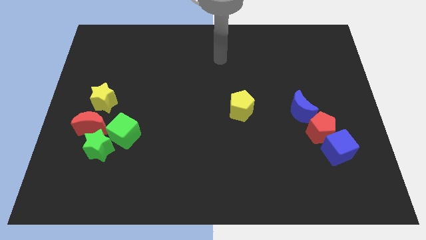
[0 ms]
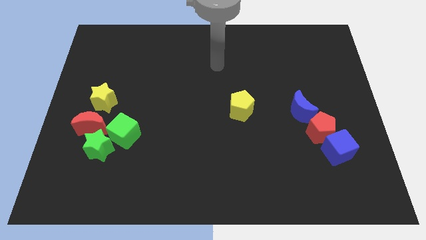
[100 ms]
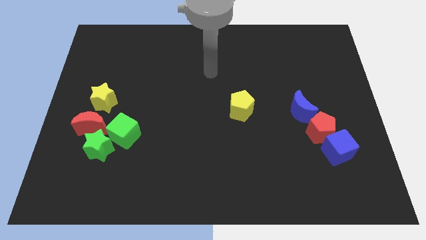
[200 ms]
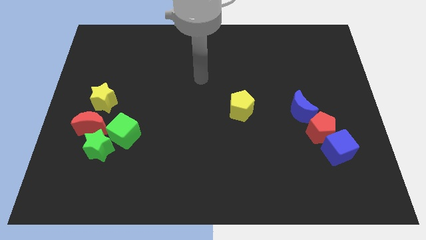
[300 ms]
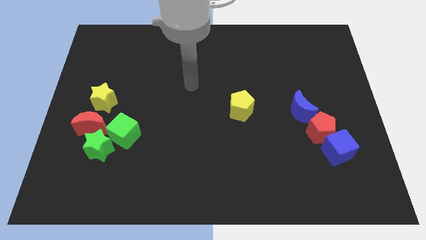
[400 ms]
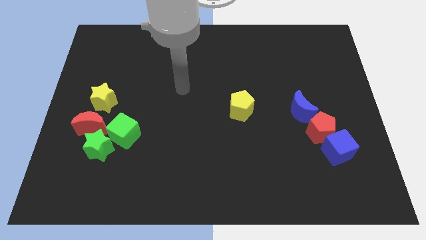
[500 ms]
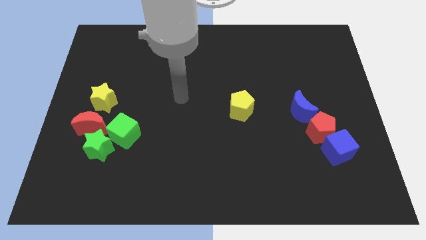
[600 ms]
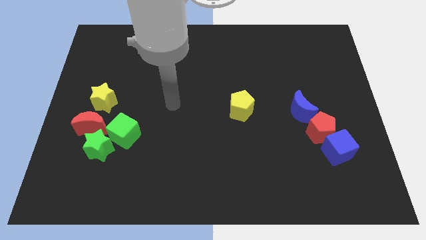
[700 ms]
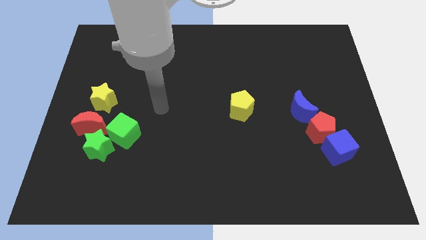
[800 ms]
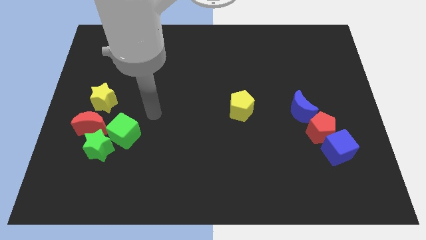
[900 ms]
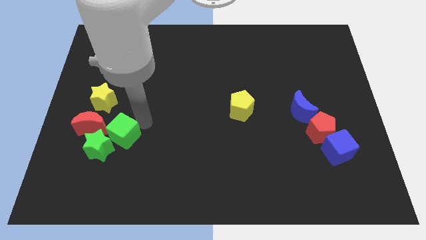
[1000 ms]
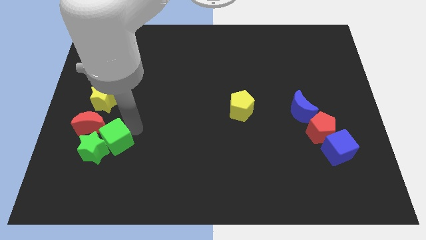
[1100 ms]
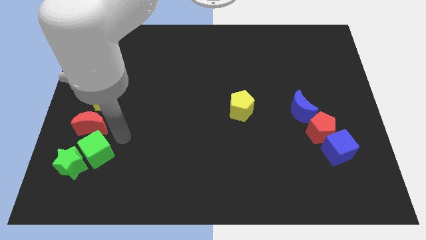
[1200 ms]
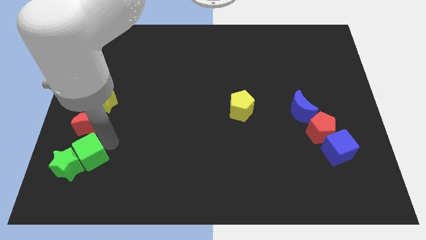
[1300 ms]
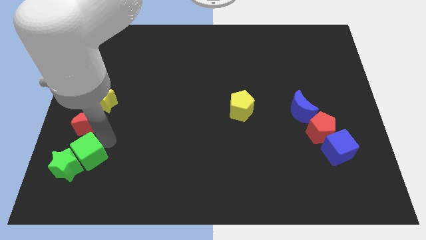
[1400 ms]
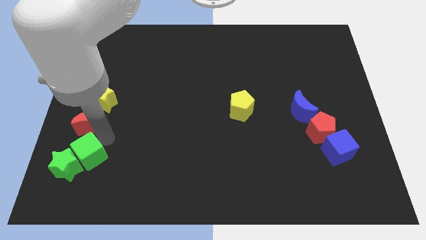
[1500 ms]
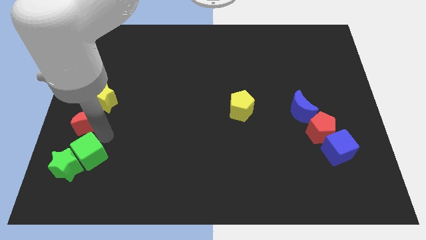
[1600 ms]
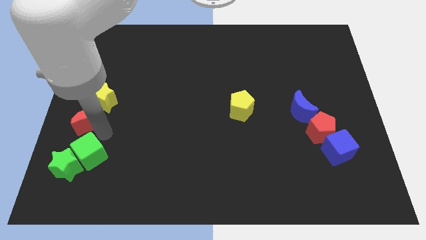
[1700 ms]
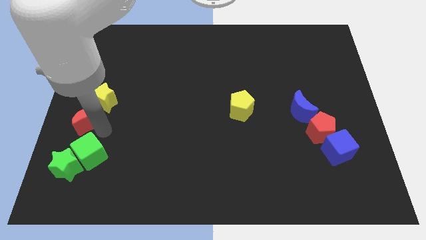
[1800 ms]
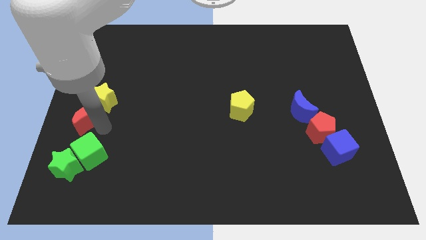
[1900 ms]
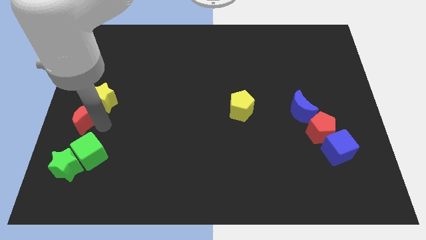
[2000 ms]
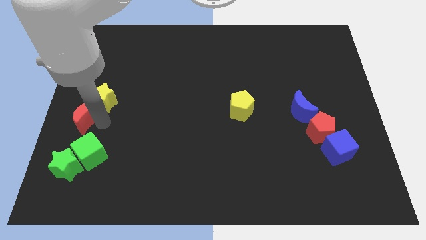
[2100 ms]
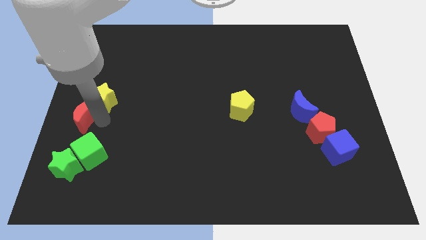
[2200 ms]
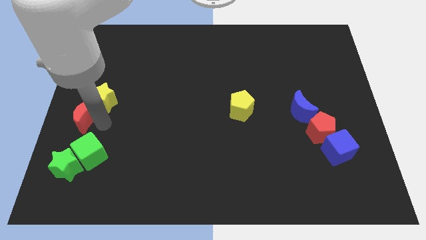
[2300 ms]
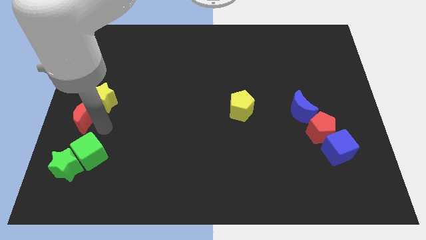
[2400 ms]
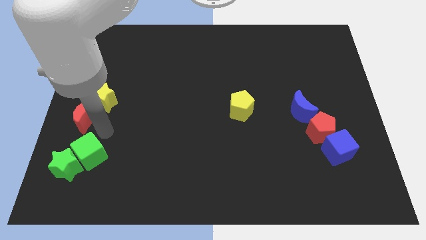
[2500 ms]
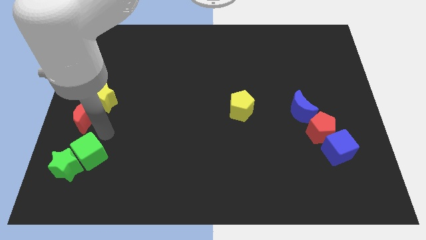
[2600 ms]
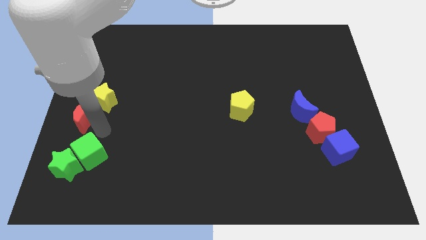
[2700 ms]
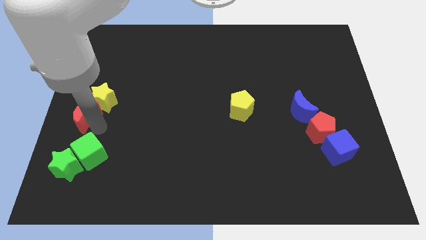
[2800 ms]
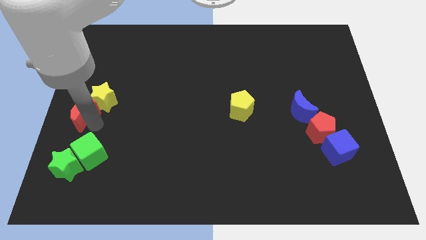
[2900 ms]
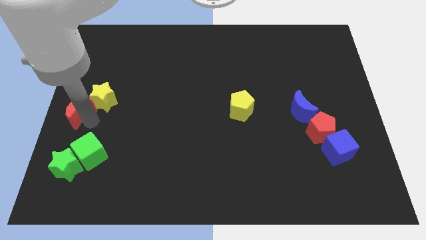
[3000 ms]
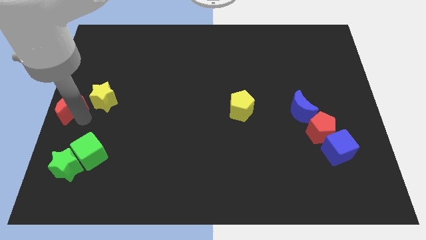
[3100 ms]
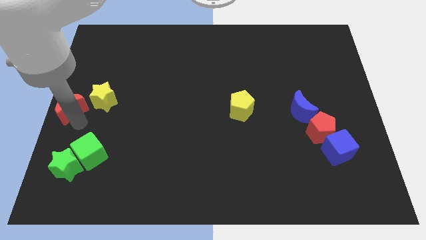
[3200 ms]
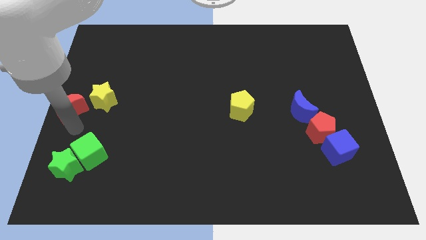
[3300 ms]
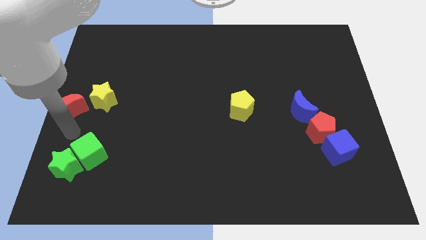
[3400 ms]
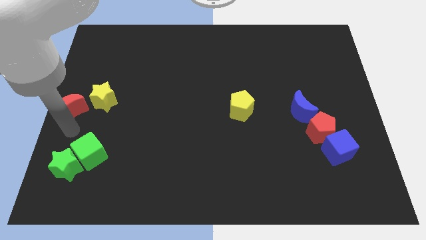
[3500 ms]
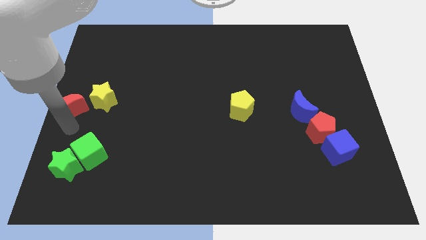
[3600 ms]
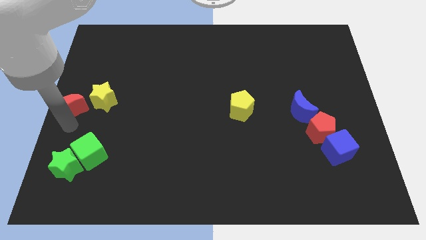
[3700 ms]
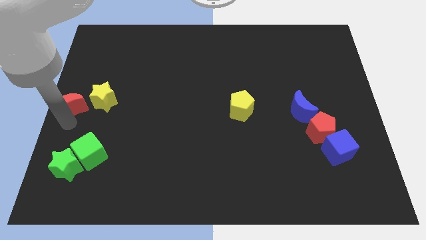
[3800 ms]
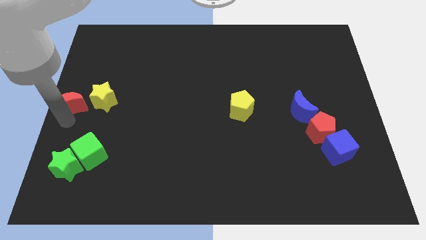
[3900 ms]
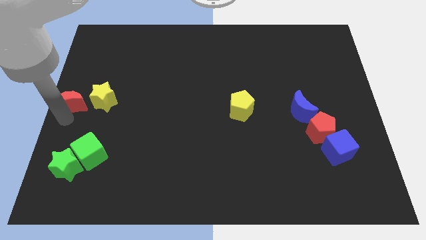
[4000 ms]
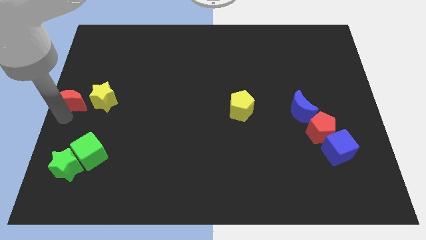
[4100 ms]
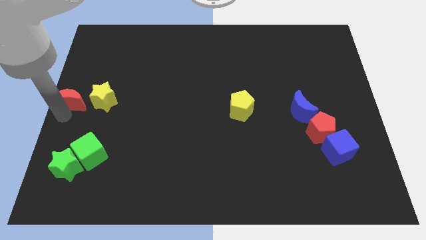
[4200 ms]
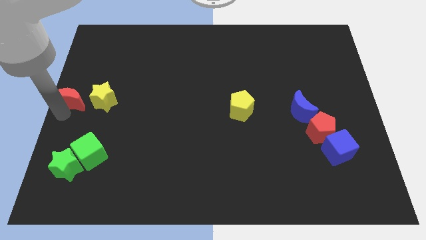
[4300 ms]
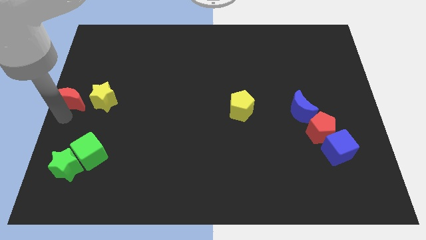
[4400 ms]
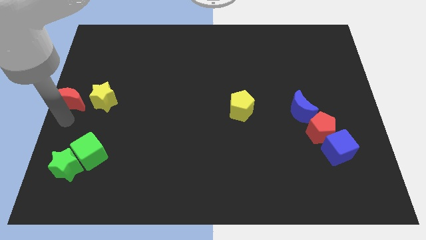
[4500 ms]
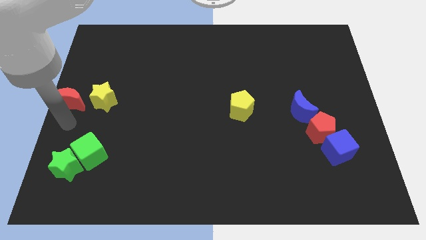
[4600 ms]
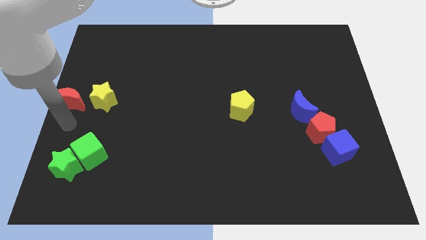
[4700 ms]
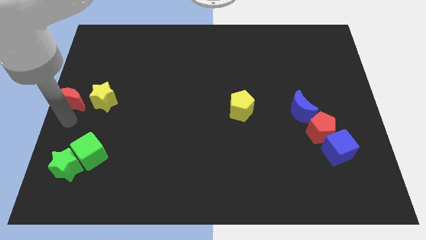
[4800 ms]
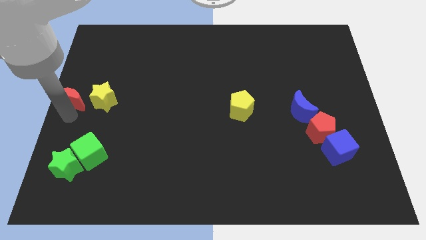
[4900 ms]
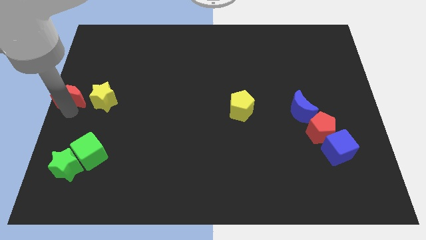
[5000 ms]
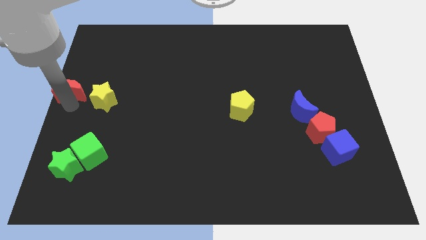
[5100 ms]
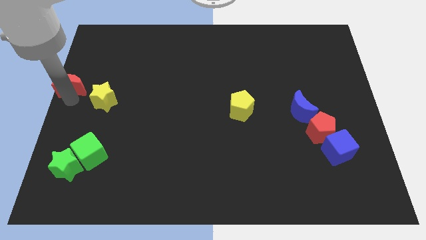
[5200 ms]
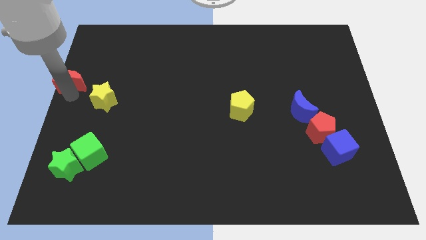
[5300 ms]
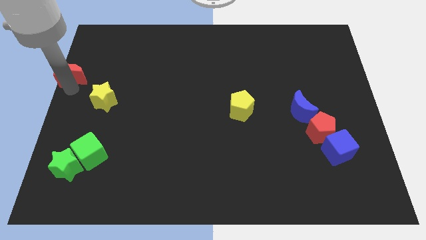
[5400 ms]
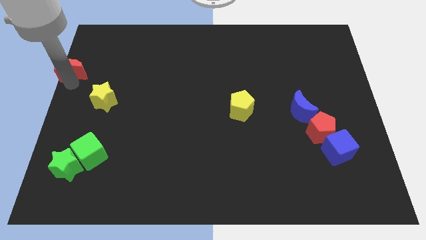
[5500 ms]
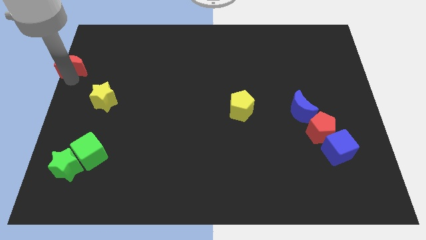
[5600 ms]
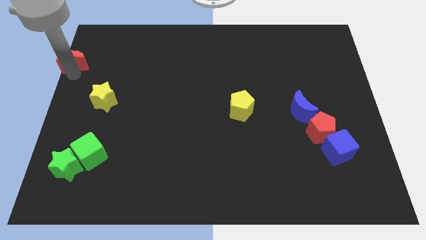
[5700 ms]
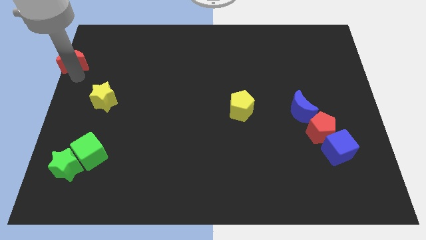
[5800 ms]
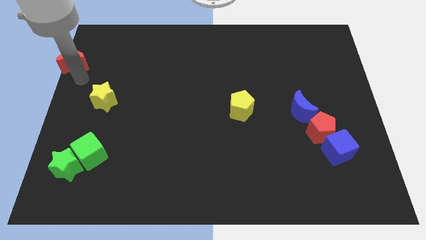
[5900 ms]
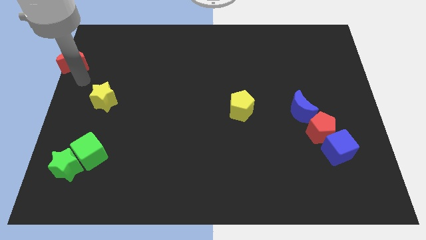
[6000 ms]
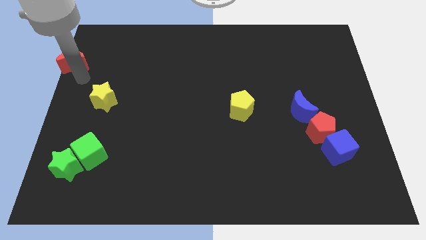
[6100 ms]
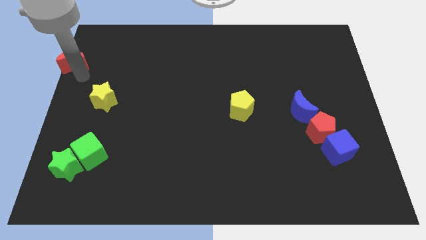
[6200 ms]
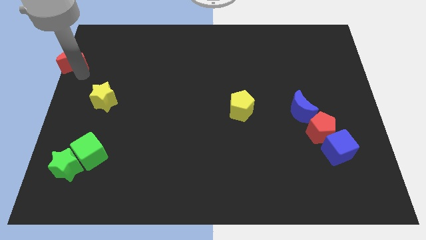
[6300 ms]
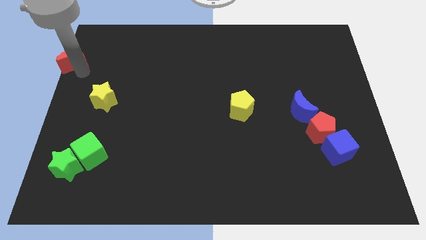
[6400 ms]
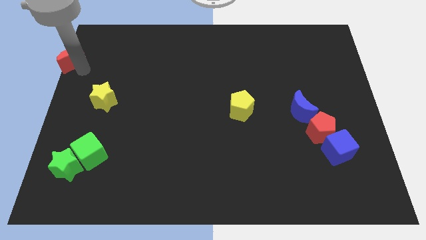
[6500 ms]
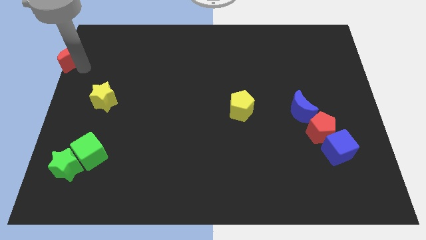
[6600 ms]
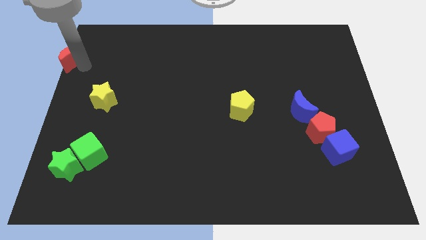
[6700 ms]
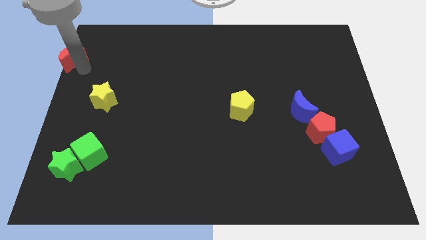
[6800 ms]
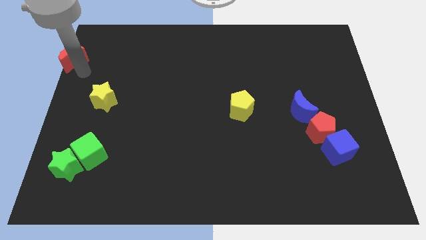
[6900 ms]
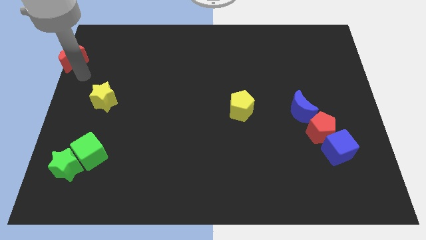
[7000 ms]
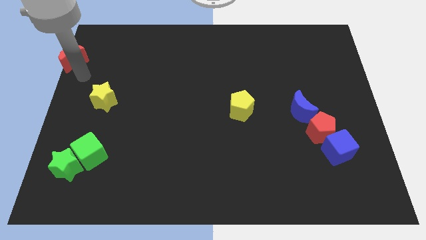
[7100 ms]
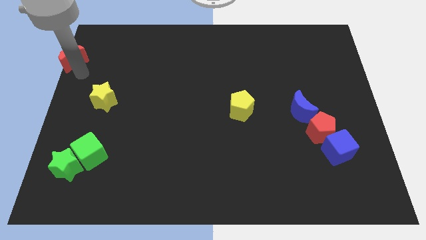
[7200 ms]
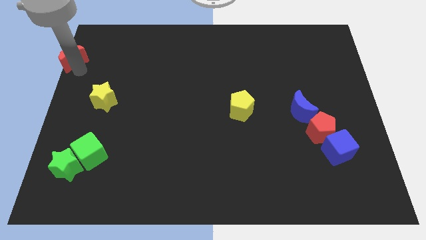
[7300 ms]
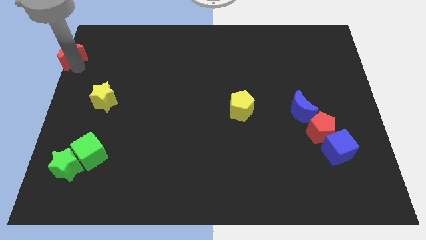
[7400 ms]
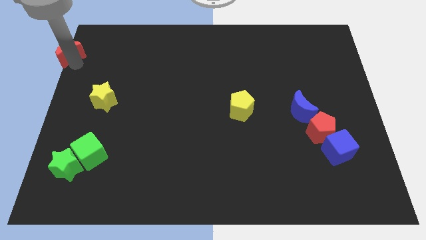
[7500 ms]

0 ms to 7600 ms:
push the red moon to the top left
